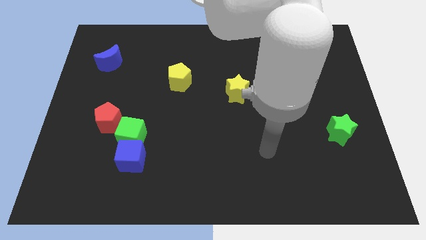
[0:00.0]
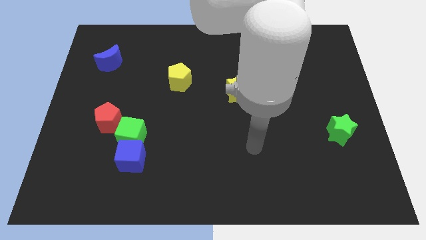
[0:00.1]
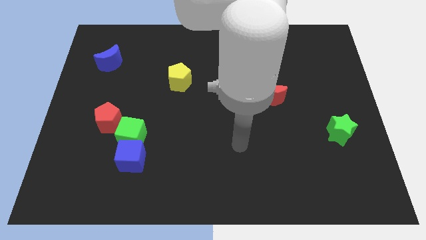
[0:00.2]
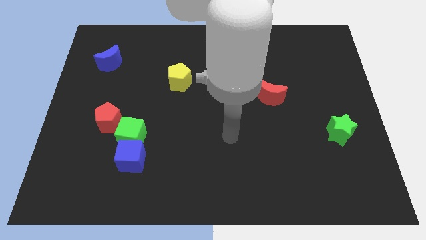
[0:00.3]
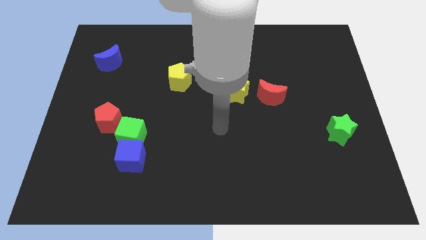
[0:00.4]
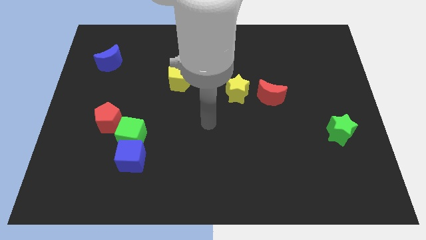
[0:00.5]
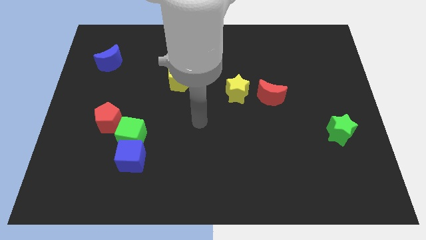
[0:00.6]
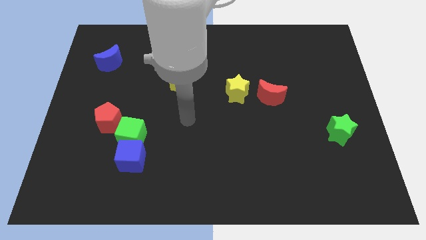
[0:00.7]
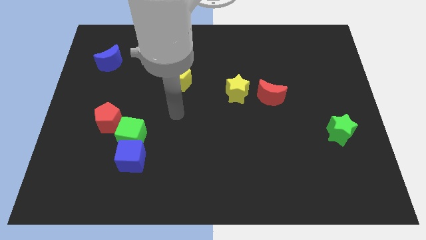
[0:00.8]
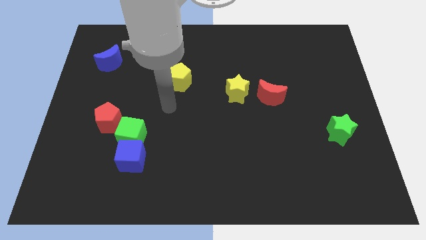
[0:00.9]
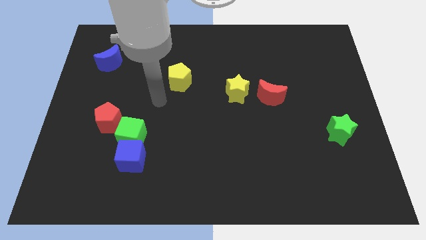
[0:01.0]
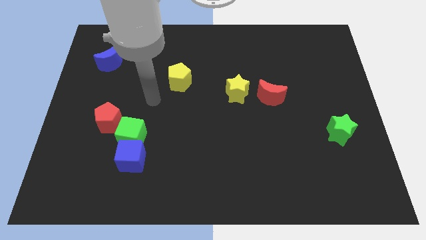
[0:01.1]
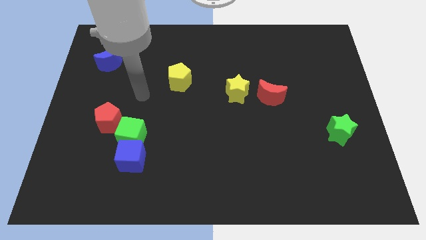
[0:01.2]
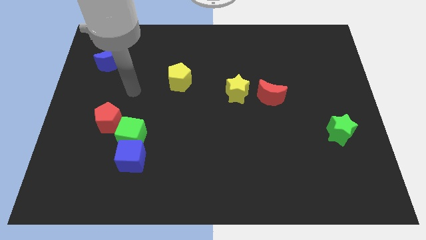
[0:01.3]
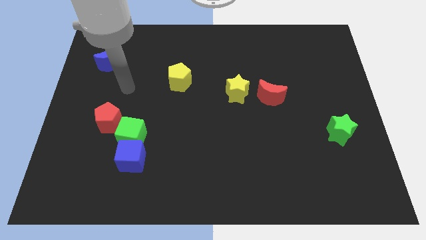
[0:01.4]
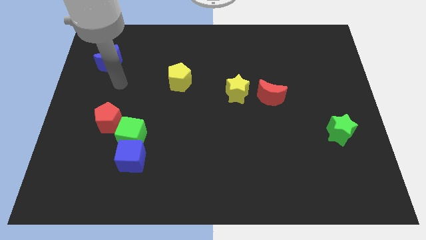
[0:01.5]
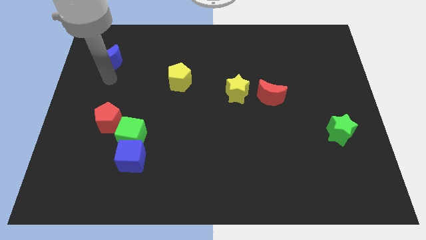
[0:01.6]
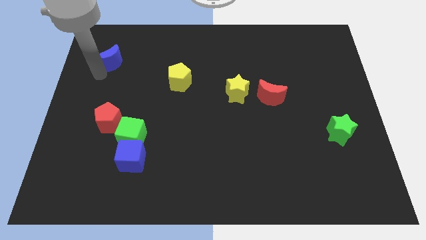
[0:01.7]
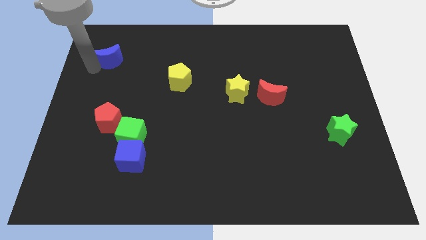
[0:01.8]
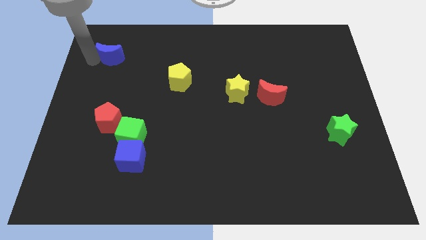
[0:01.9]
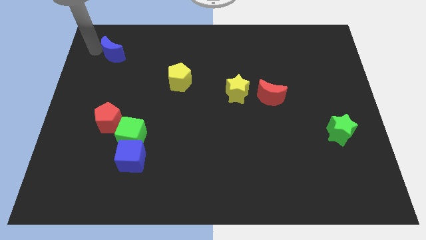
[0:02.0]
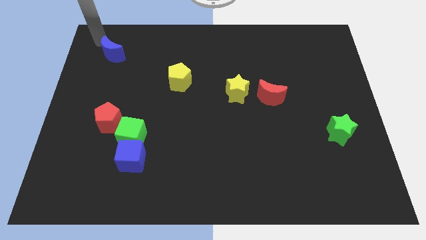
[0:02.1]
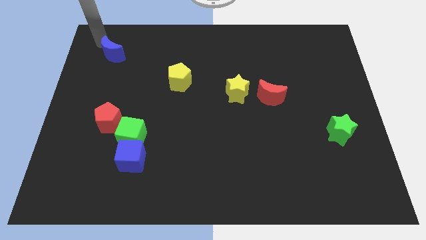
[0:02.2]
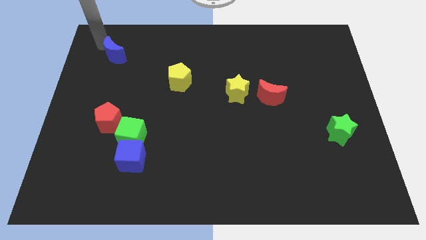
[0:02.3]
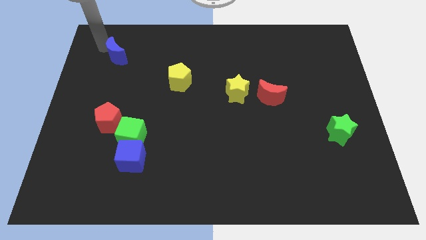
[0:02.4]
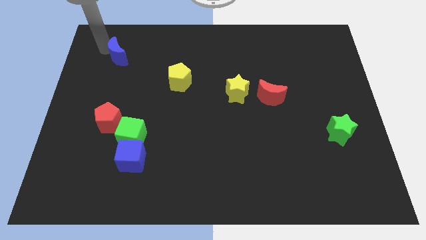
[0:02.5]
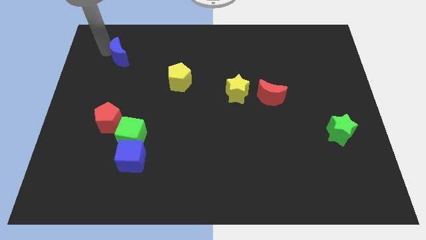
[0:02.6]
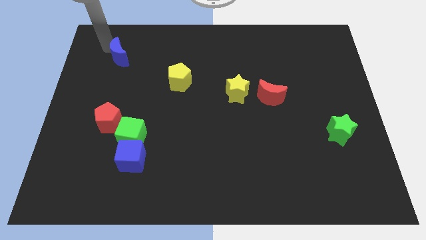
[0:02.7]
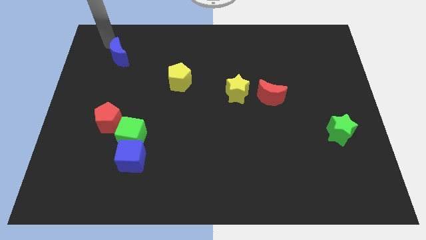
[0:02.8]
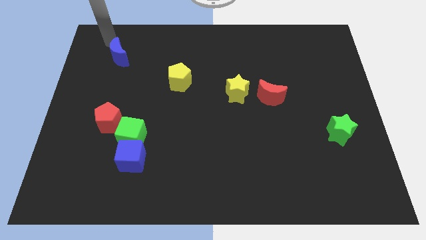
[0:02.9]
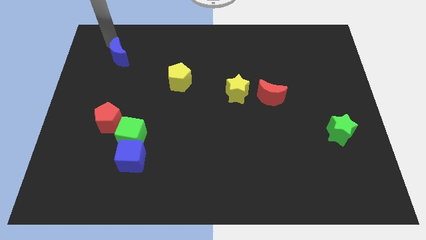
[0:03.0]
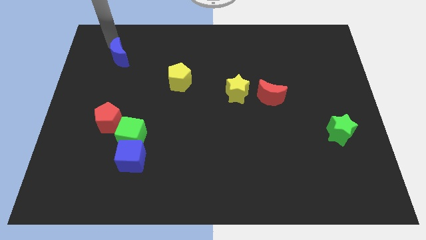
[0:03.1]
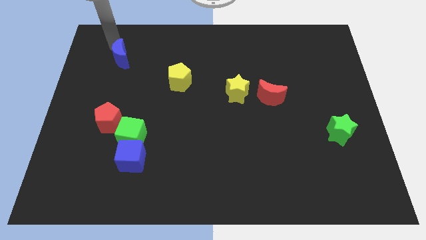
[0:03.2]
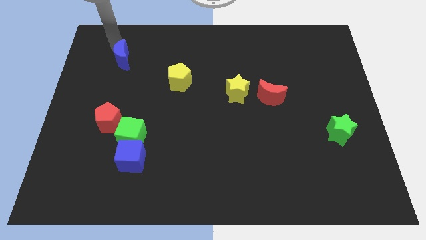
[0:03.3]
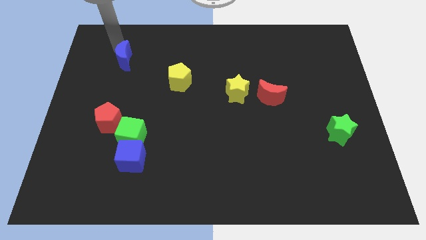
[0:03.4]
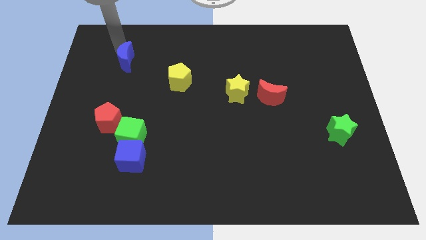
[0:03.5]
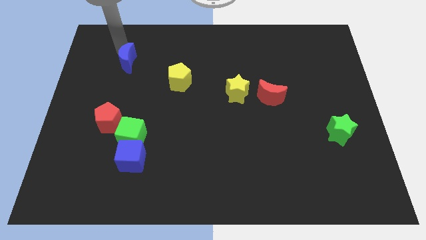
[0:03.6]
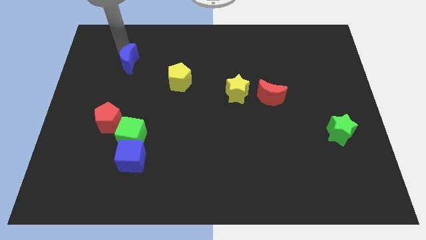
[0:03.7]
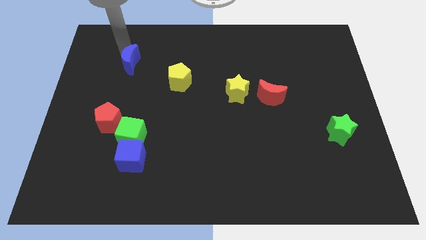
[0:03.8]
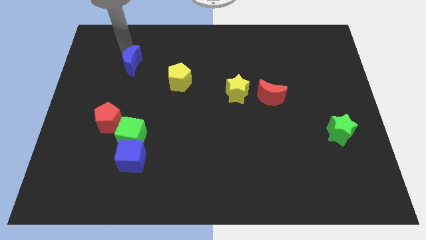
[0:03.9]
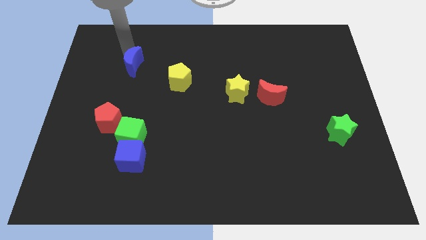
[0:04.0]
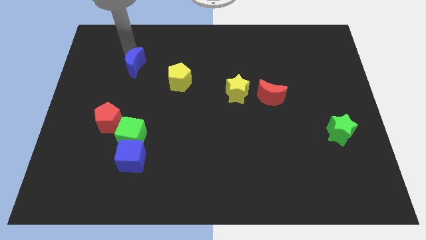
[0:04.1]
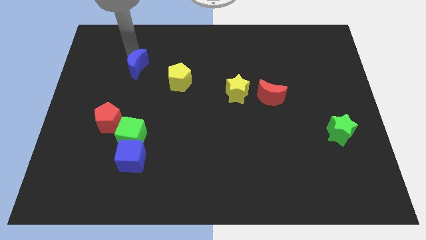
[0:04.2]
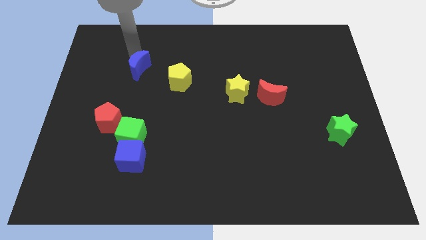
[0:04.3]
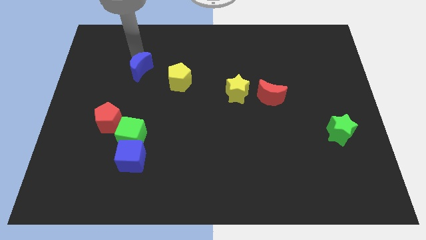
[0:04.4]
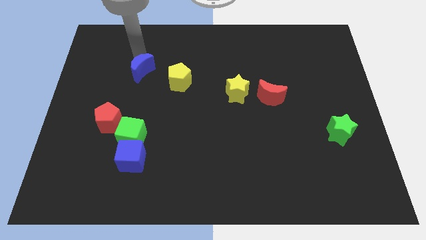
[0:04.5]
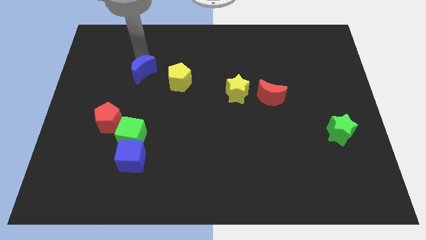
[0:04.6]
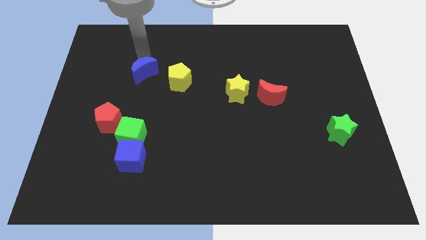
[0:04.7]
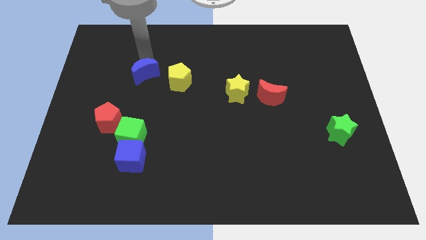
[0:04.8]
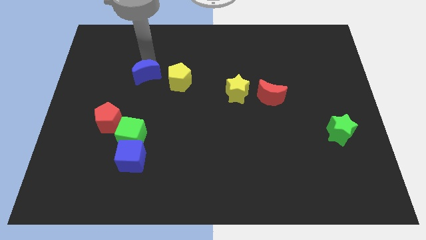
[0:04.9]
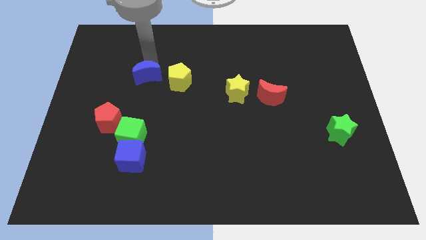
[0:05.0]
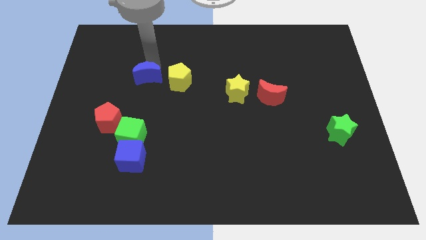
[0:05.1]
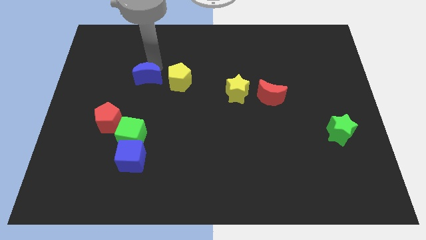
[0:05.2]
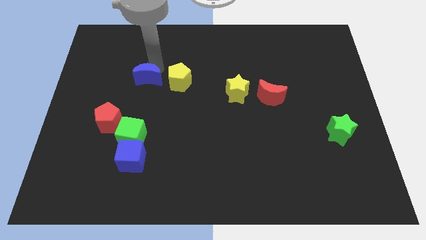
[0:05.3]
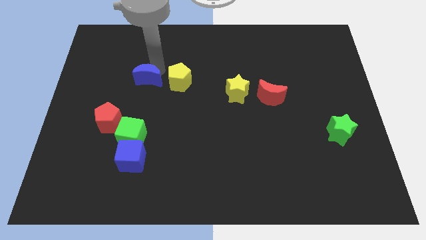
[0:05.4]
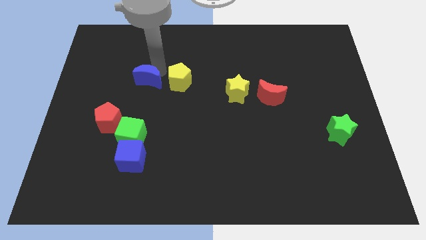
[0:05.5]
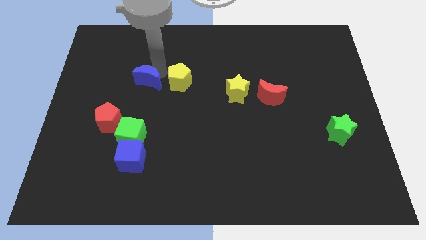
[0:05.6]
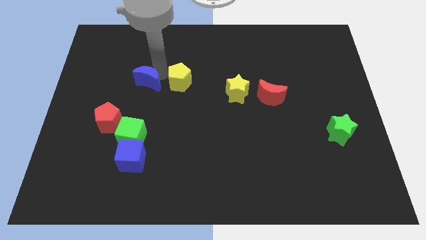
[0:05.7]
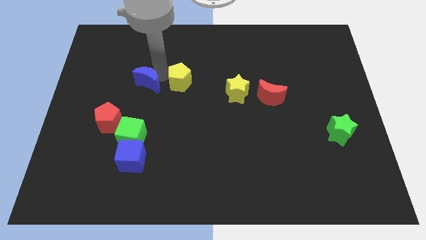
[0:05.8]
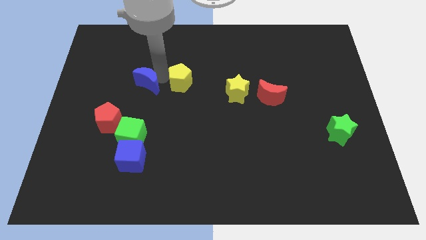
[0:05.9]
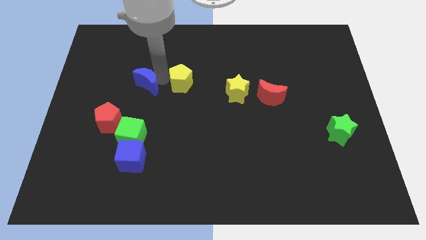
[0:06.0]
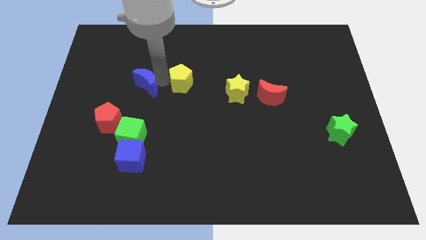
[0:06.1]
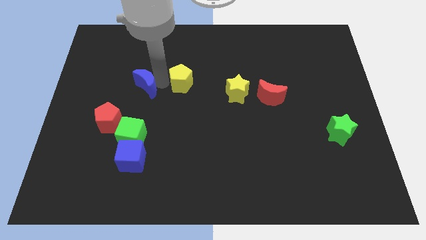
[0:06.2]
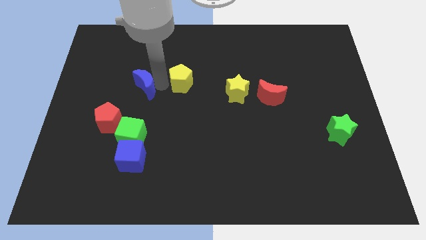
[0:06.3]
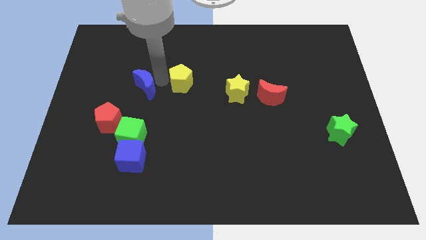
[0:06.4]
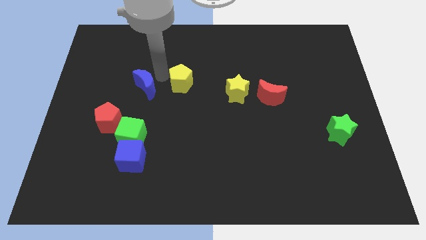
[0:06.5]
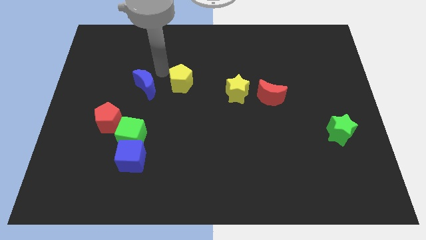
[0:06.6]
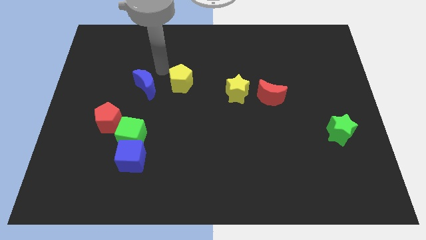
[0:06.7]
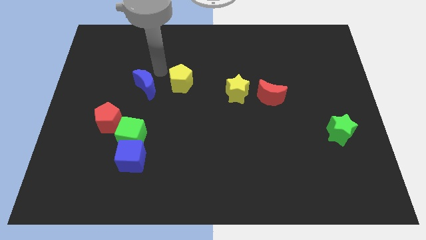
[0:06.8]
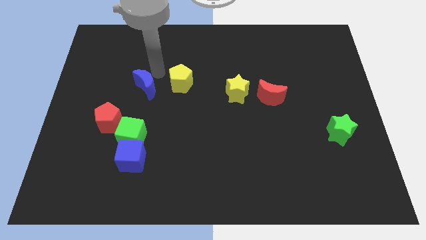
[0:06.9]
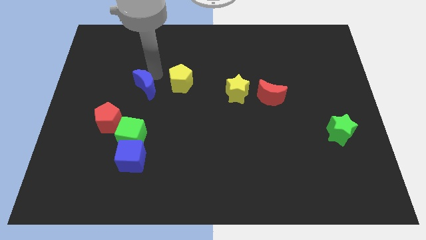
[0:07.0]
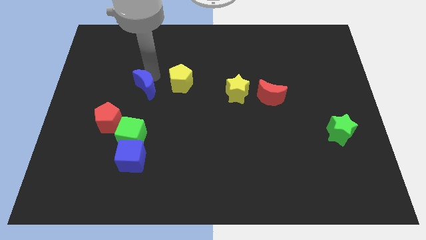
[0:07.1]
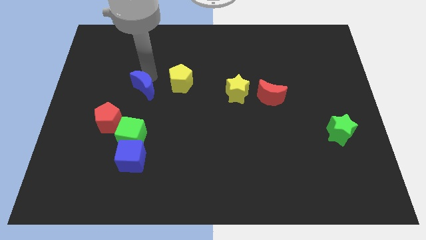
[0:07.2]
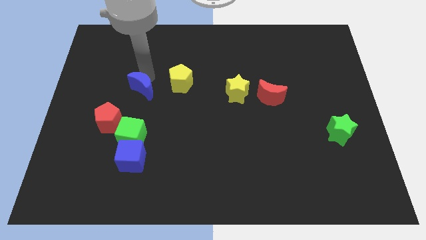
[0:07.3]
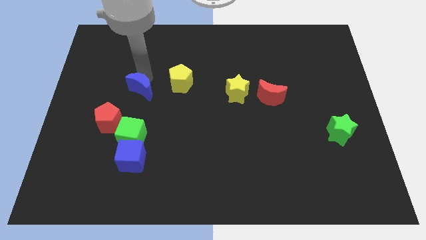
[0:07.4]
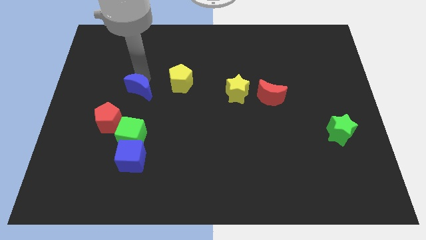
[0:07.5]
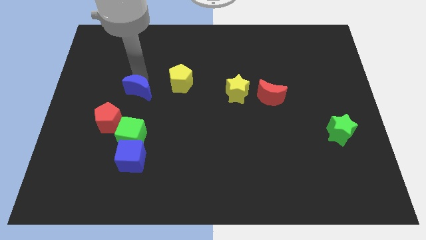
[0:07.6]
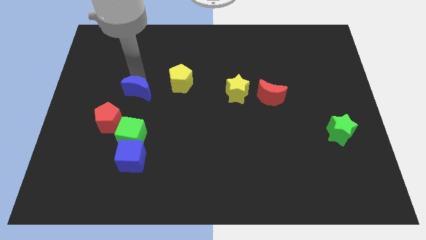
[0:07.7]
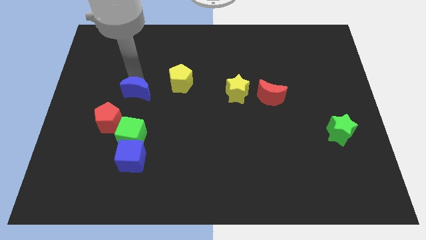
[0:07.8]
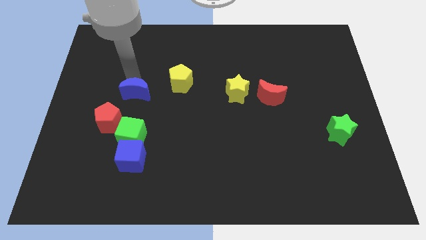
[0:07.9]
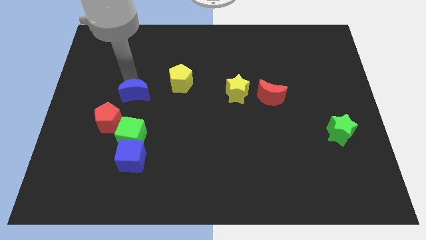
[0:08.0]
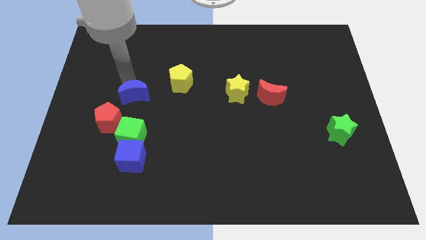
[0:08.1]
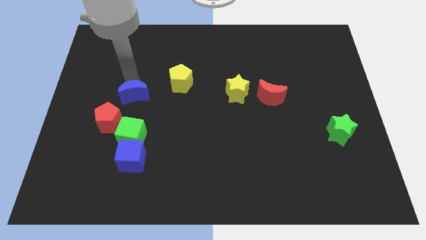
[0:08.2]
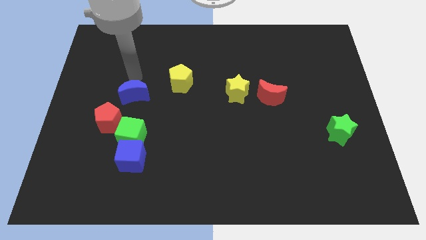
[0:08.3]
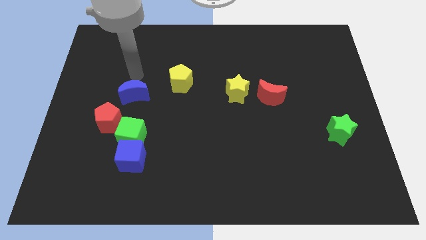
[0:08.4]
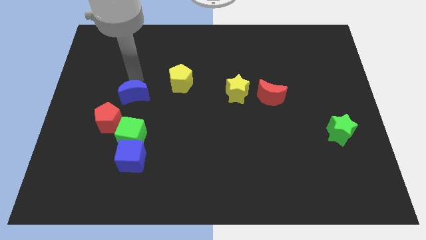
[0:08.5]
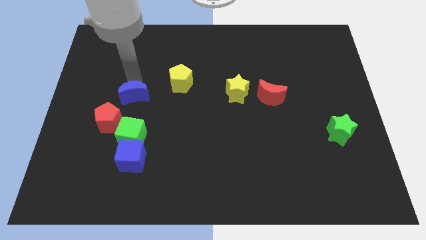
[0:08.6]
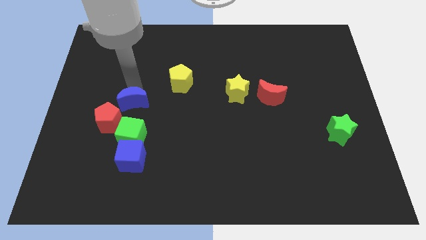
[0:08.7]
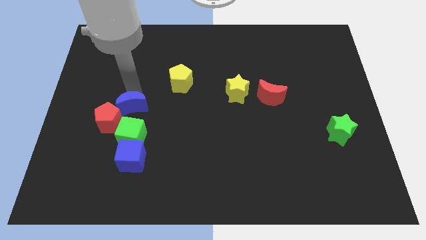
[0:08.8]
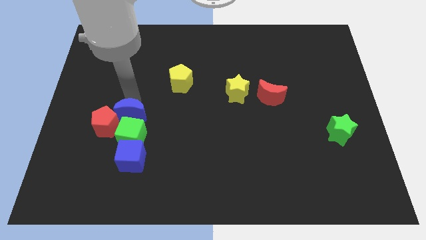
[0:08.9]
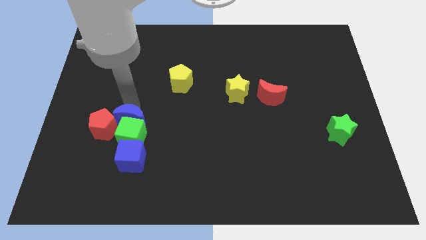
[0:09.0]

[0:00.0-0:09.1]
move the blue moon towards the green cube
